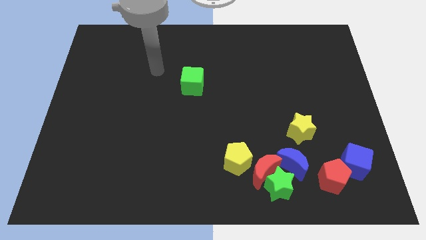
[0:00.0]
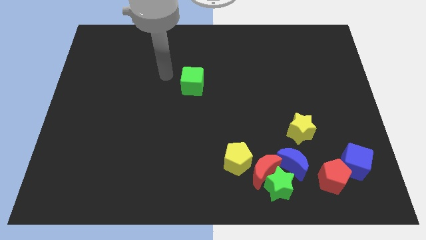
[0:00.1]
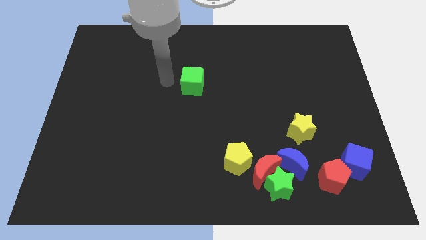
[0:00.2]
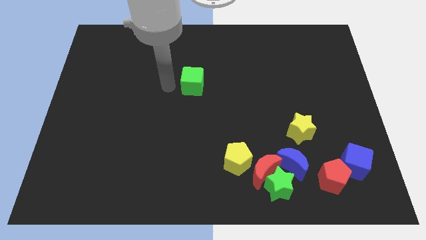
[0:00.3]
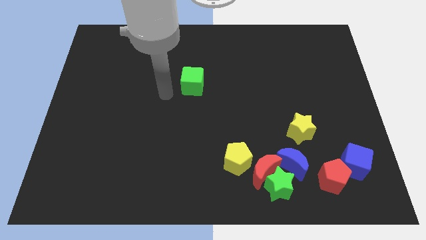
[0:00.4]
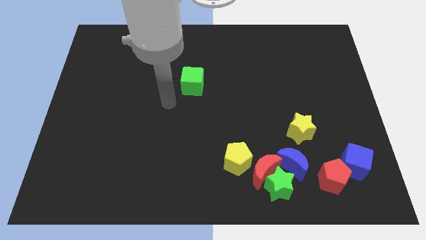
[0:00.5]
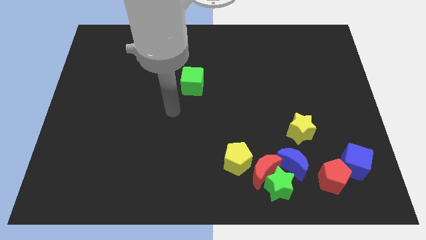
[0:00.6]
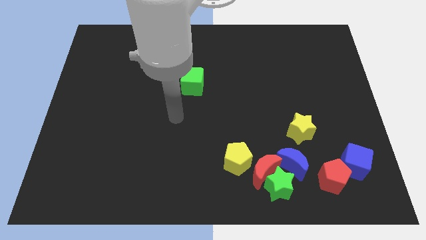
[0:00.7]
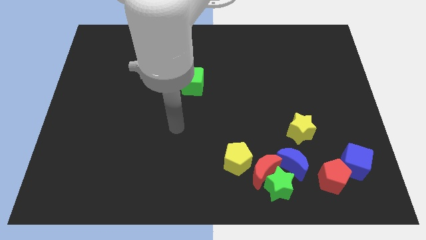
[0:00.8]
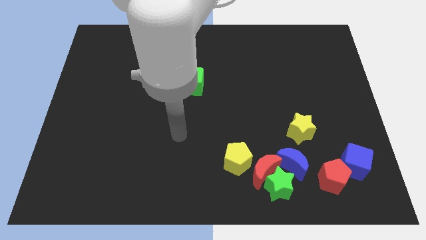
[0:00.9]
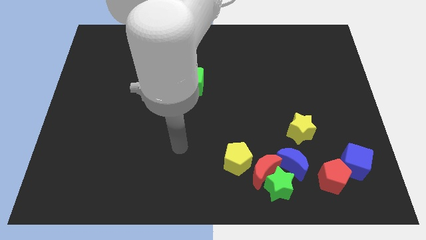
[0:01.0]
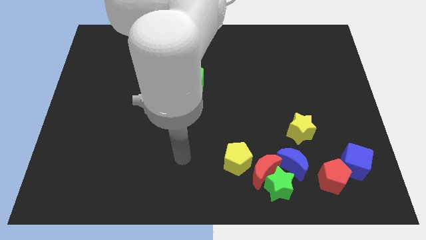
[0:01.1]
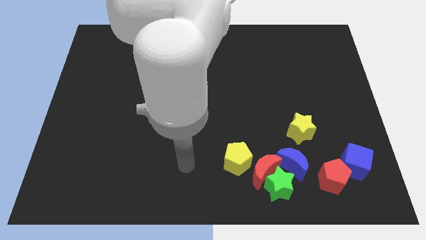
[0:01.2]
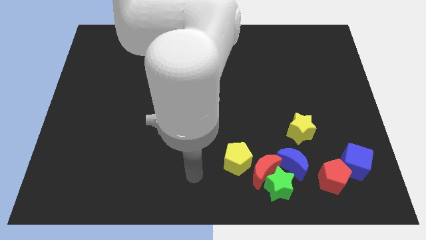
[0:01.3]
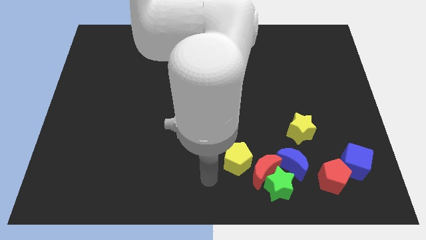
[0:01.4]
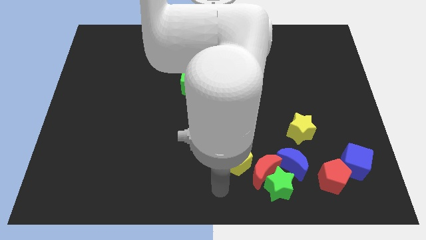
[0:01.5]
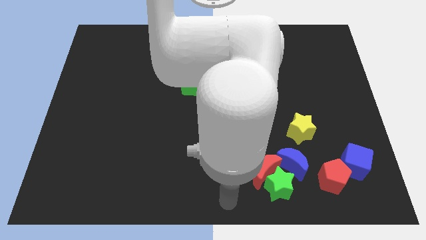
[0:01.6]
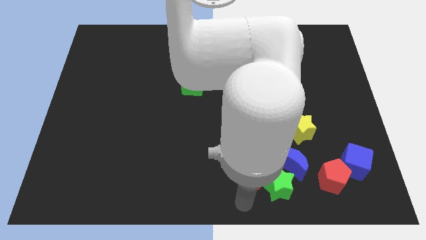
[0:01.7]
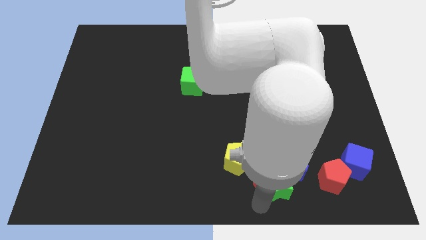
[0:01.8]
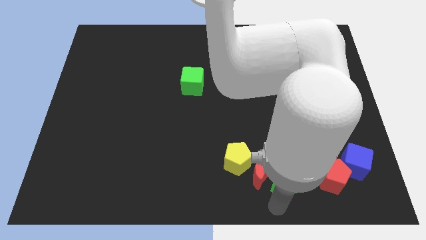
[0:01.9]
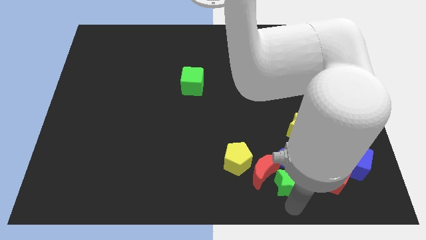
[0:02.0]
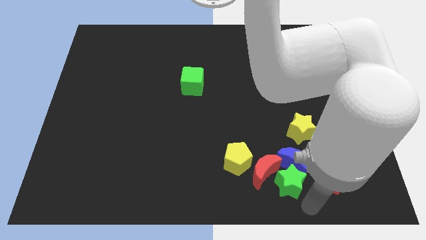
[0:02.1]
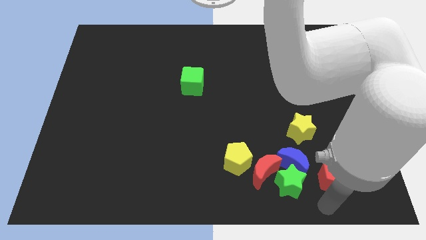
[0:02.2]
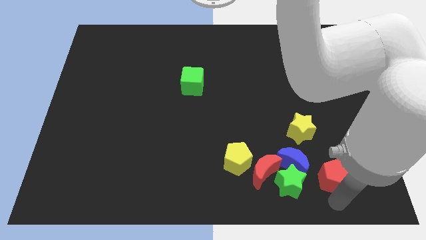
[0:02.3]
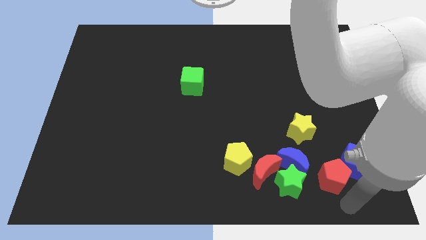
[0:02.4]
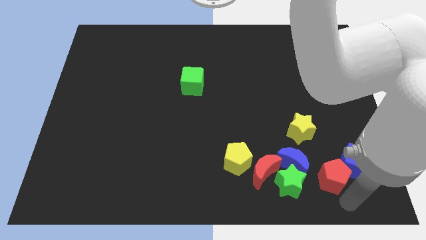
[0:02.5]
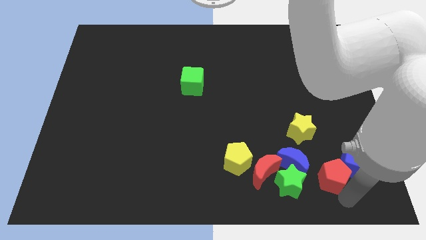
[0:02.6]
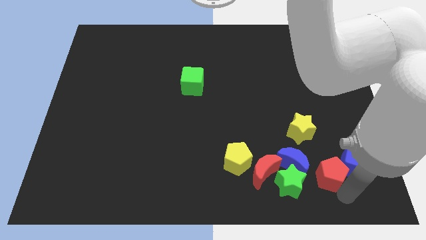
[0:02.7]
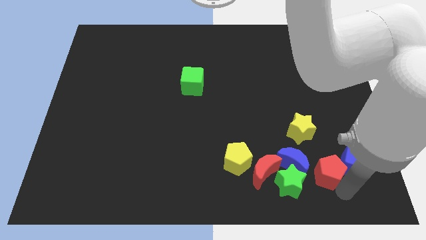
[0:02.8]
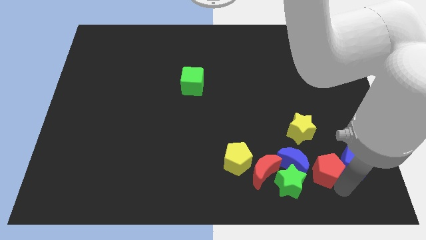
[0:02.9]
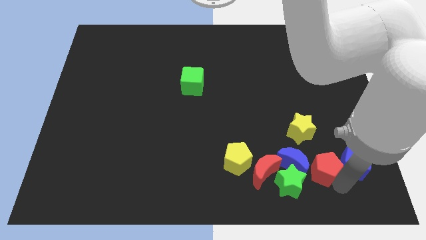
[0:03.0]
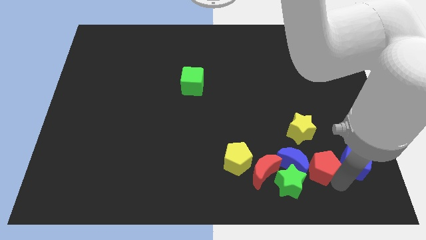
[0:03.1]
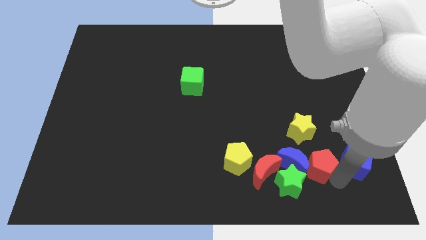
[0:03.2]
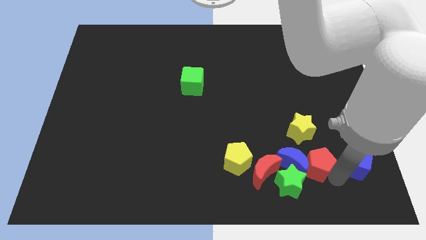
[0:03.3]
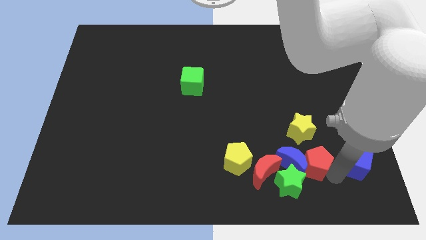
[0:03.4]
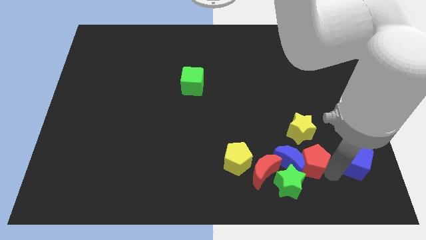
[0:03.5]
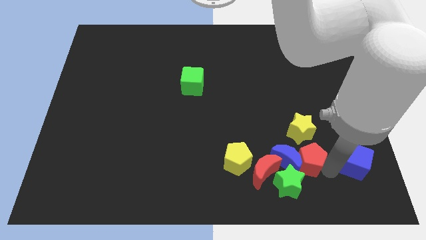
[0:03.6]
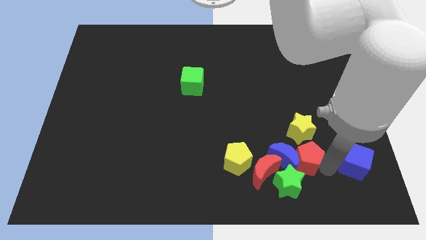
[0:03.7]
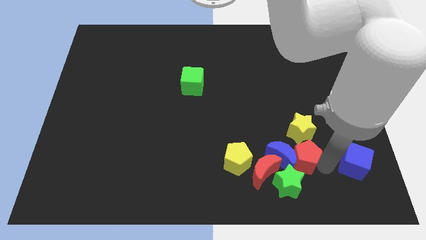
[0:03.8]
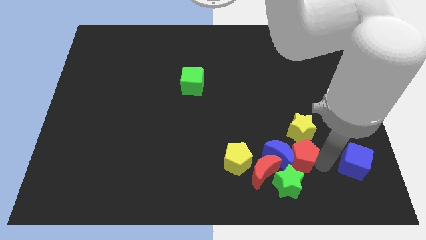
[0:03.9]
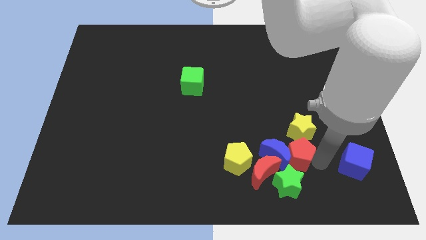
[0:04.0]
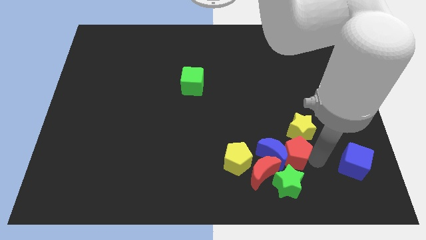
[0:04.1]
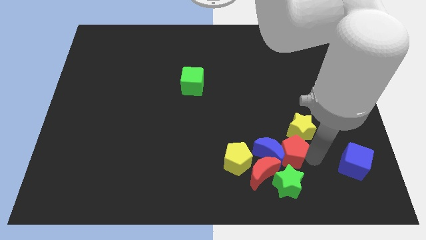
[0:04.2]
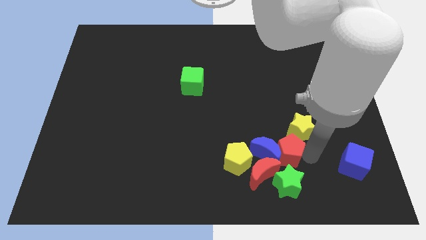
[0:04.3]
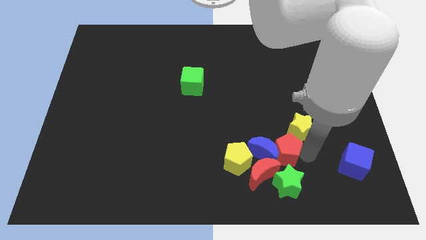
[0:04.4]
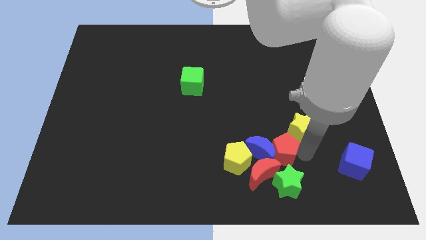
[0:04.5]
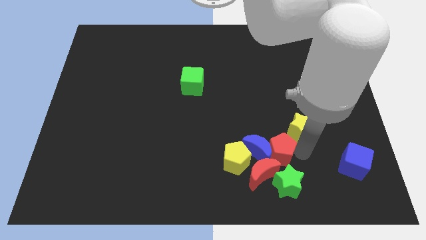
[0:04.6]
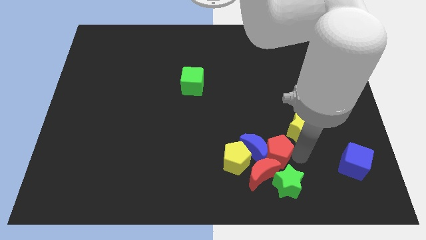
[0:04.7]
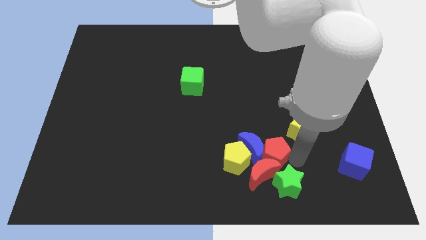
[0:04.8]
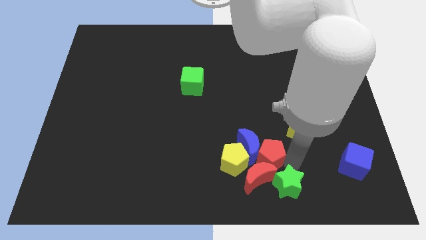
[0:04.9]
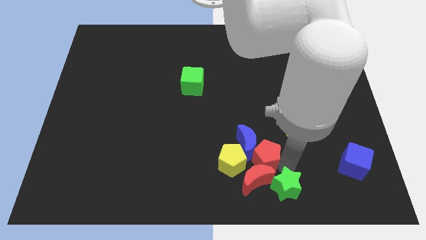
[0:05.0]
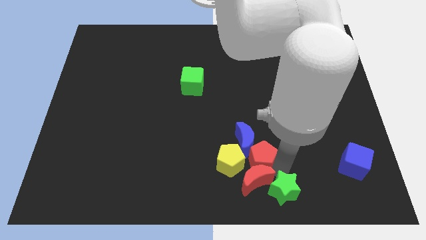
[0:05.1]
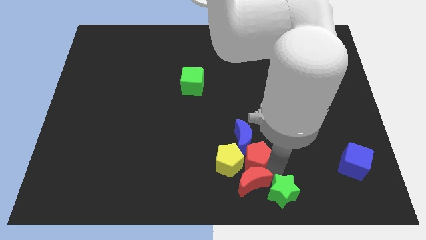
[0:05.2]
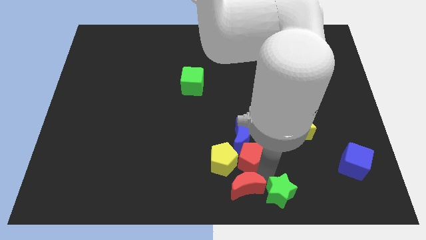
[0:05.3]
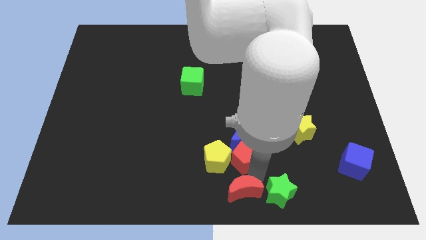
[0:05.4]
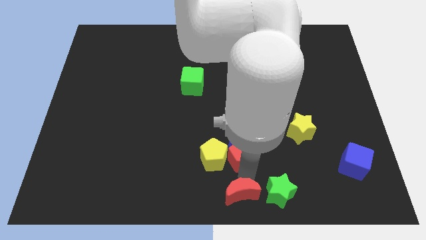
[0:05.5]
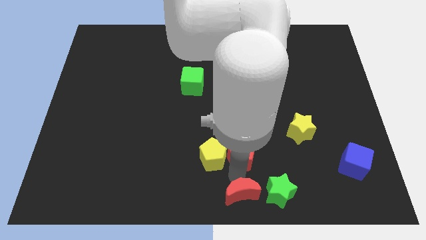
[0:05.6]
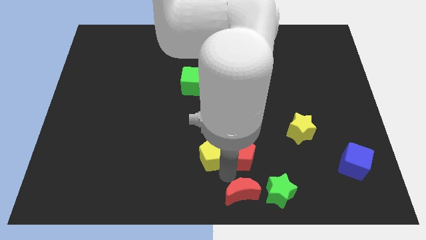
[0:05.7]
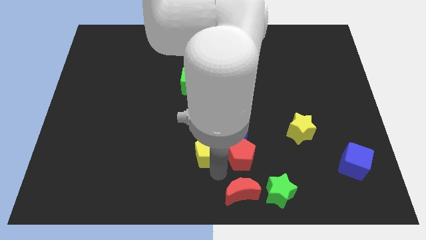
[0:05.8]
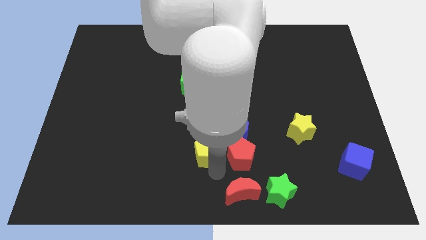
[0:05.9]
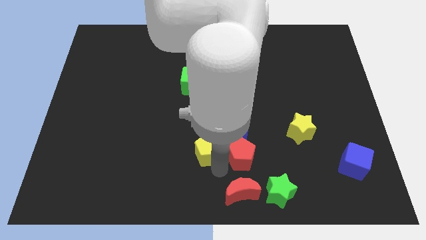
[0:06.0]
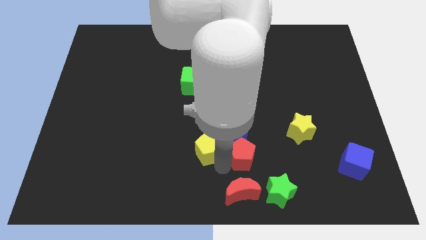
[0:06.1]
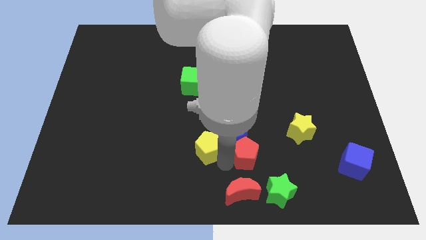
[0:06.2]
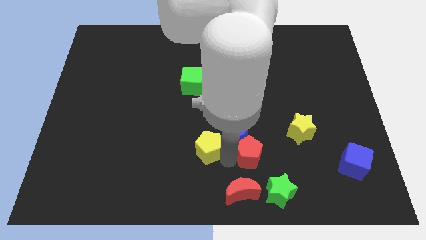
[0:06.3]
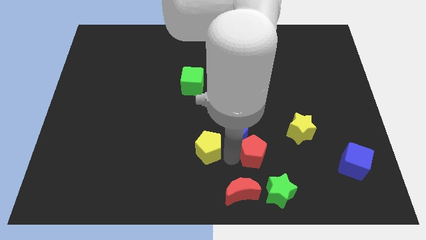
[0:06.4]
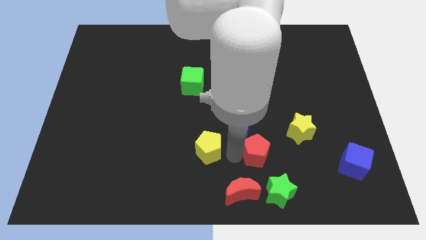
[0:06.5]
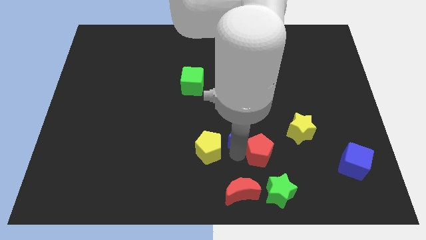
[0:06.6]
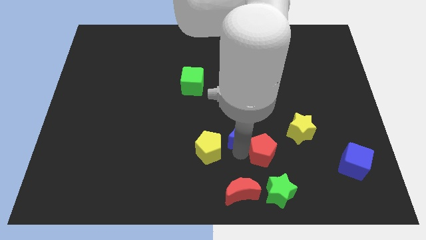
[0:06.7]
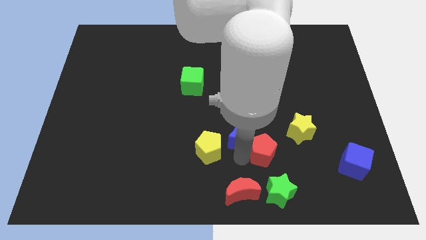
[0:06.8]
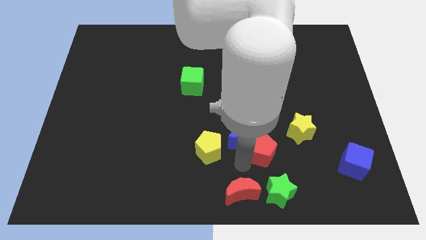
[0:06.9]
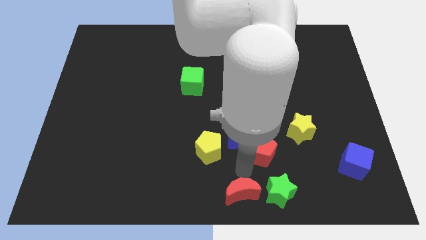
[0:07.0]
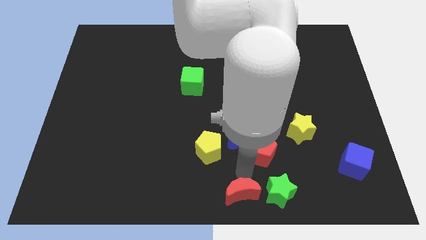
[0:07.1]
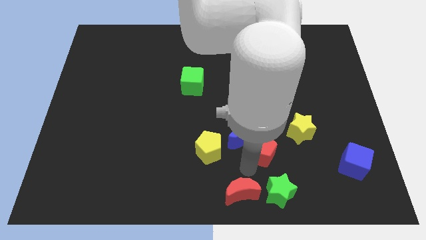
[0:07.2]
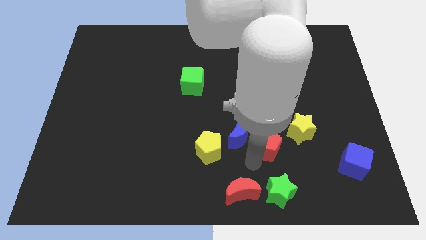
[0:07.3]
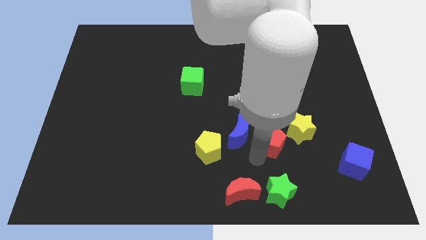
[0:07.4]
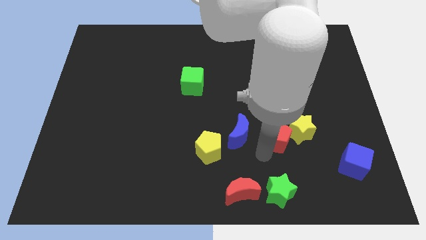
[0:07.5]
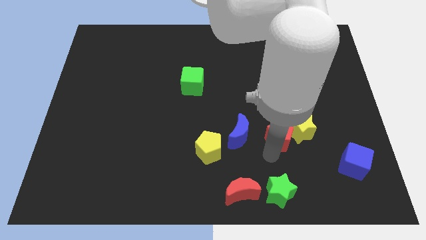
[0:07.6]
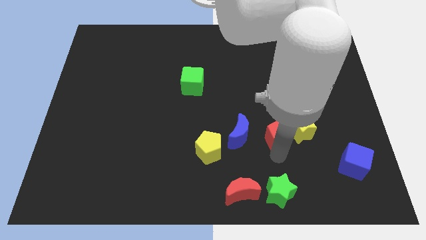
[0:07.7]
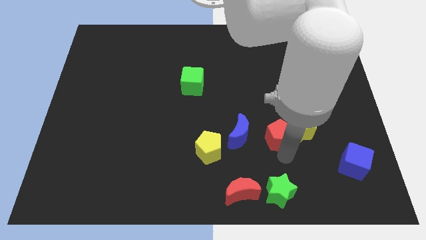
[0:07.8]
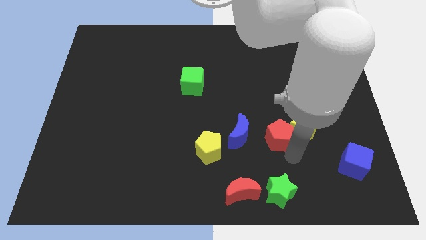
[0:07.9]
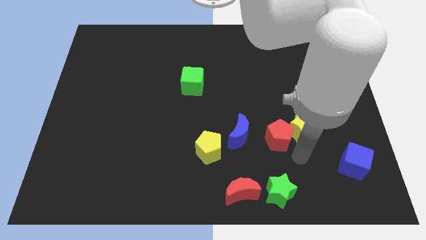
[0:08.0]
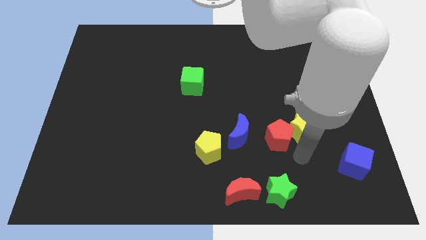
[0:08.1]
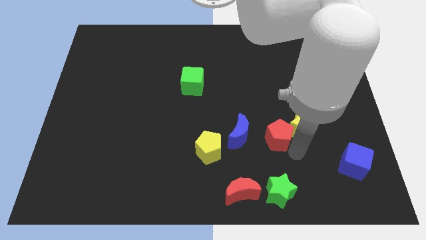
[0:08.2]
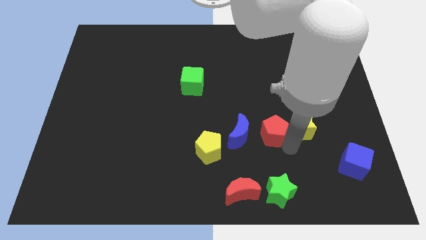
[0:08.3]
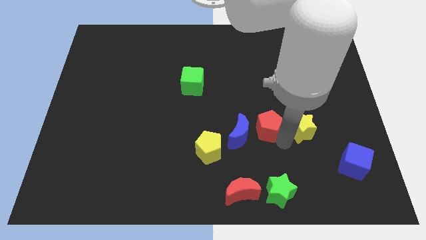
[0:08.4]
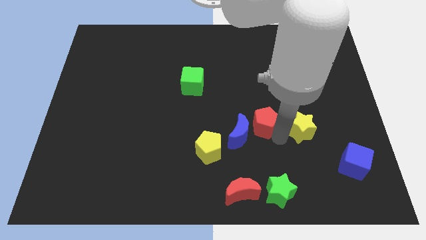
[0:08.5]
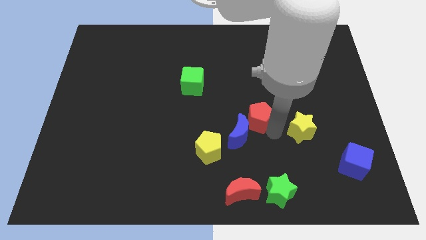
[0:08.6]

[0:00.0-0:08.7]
slide the red pentagon diagonally up and left
